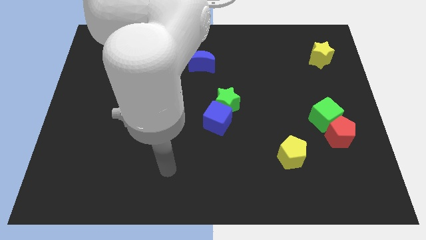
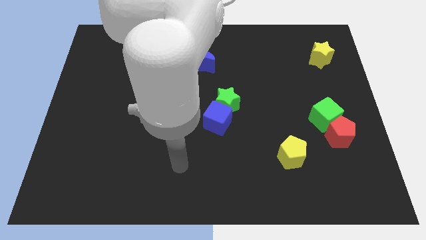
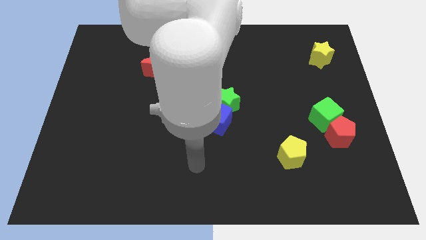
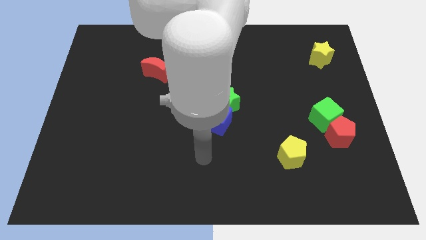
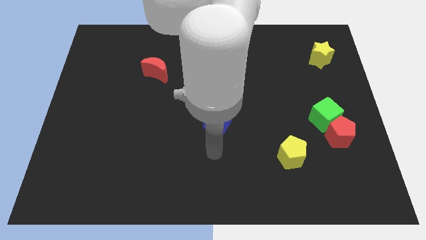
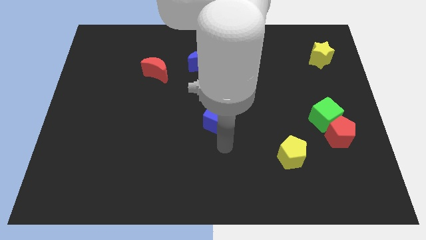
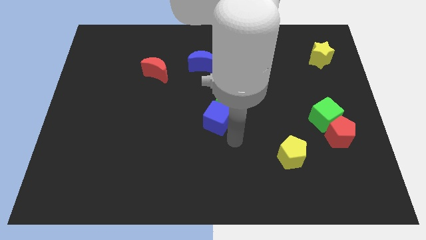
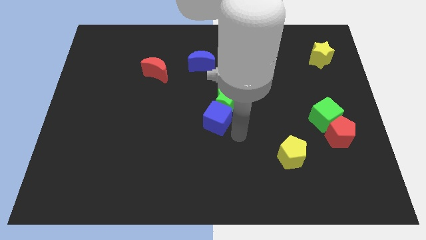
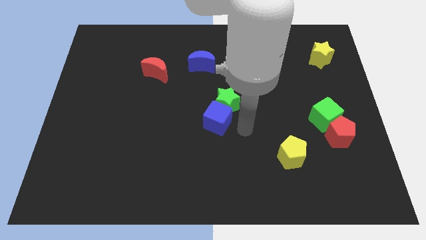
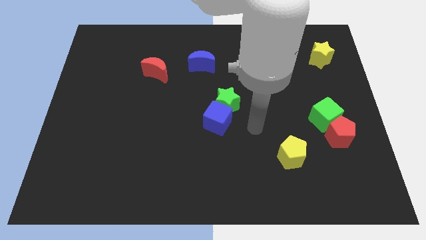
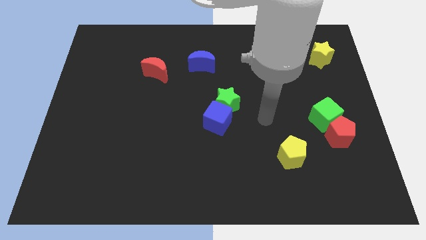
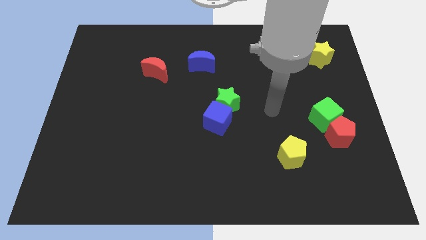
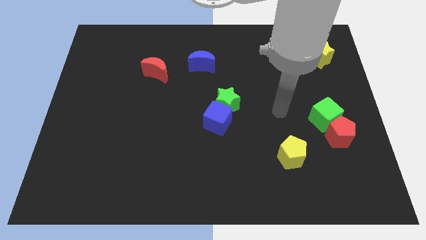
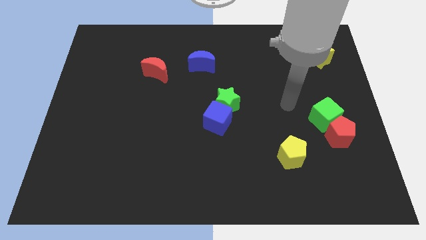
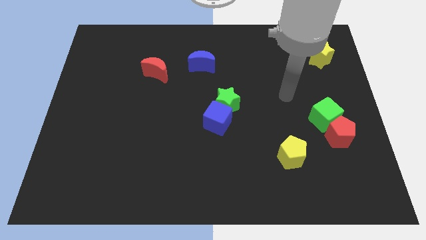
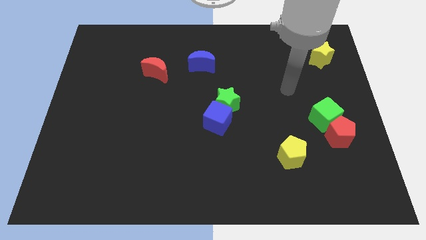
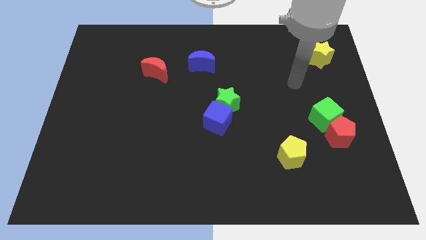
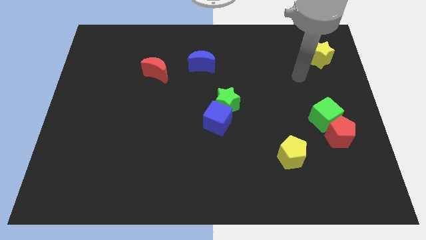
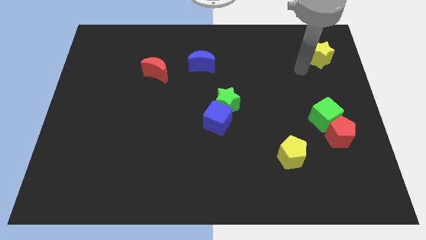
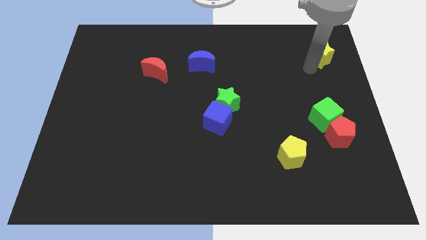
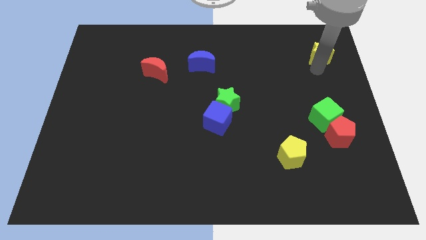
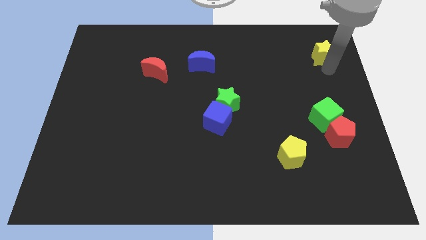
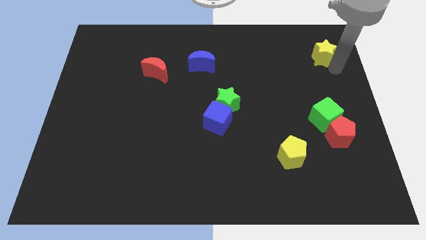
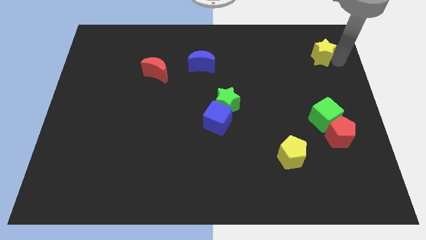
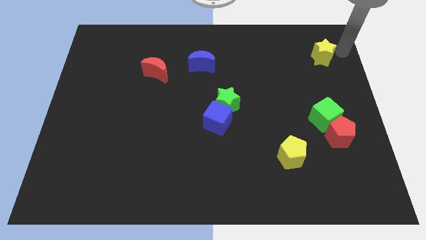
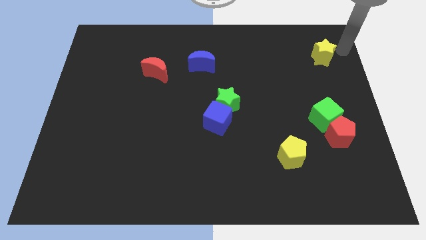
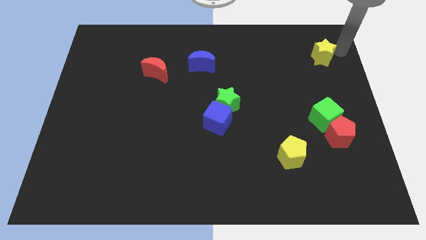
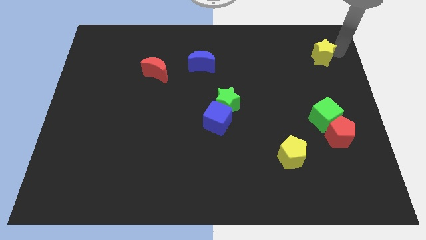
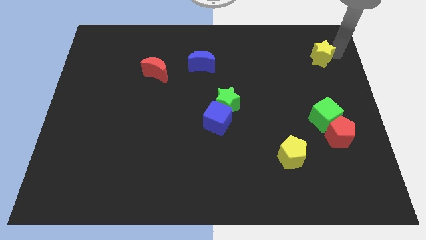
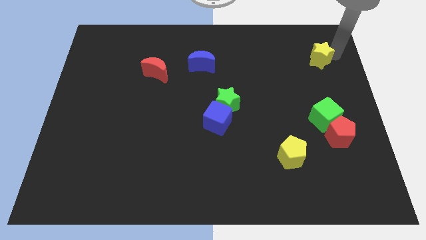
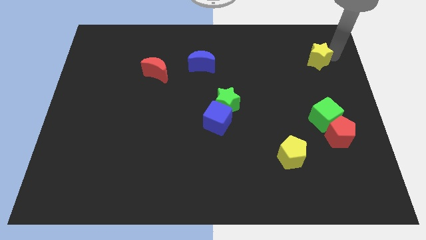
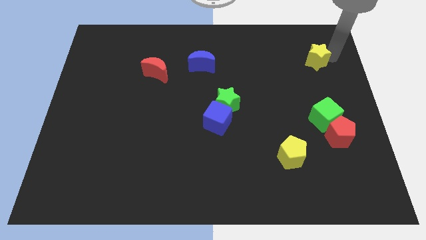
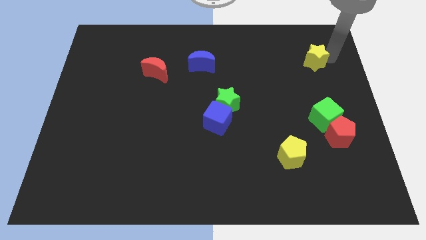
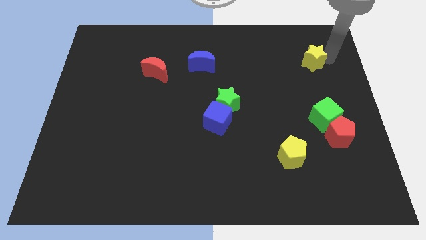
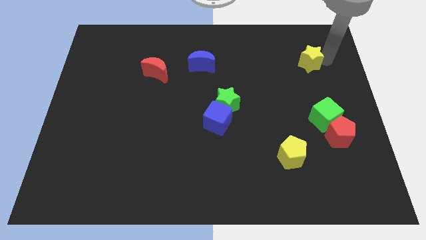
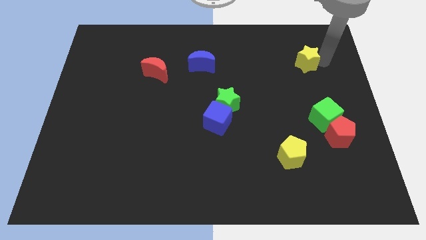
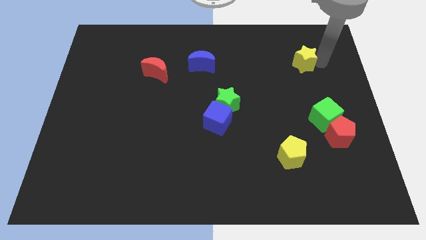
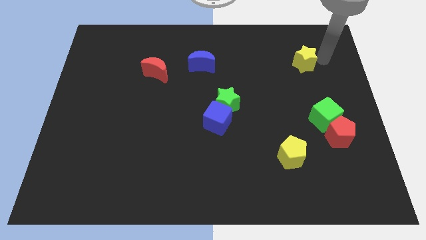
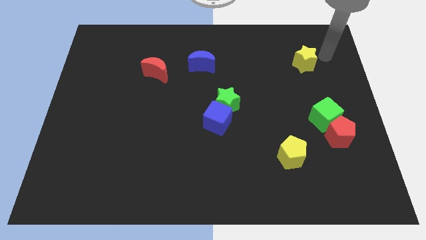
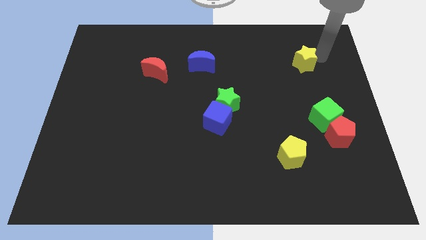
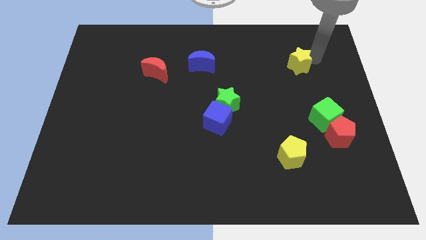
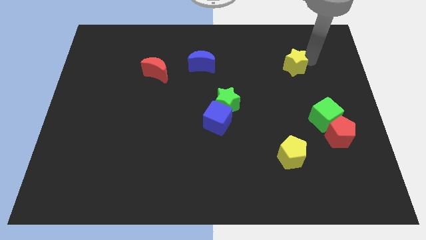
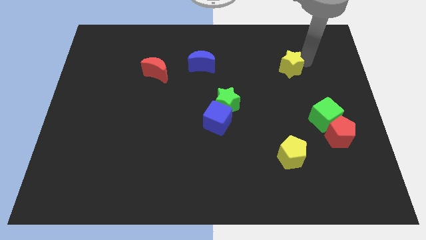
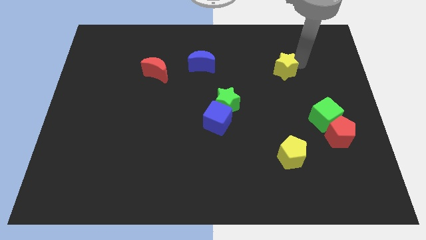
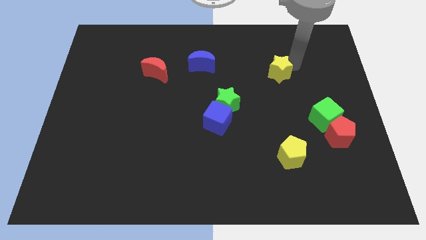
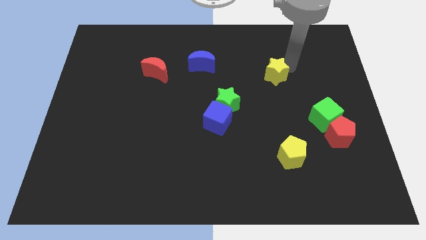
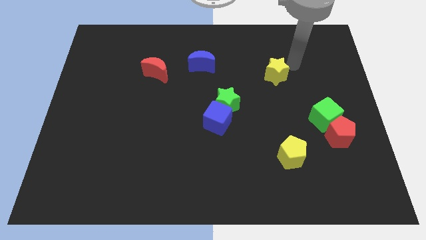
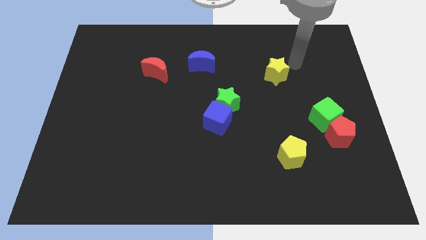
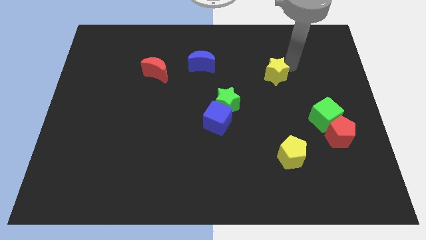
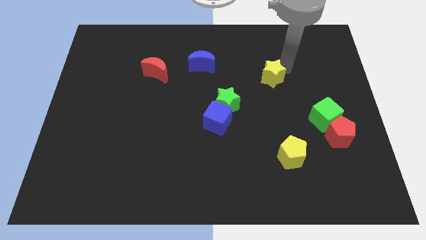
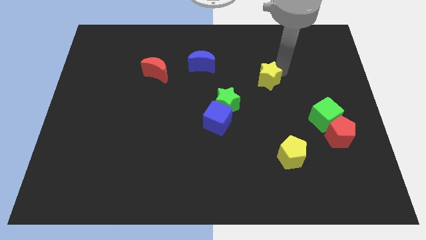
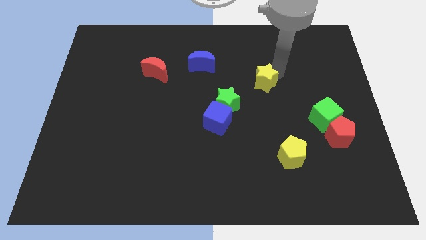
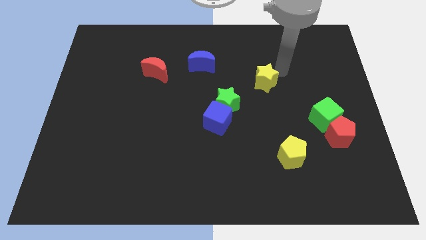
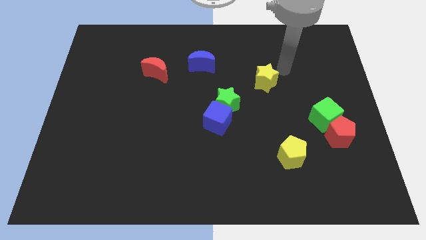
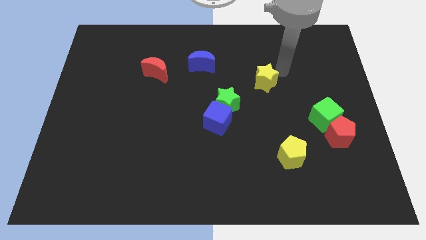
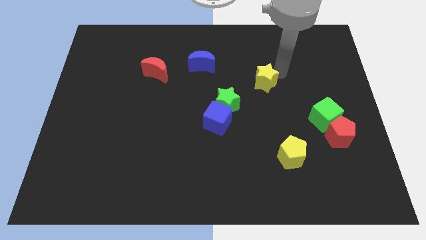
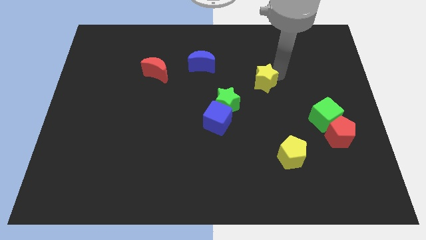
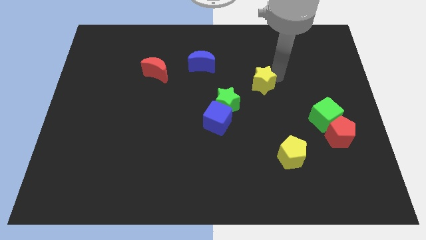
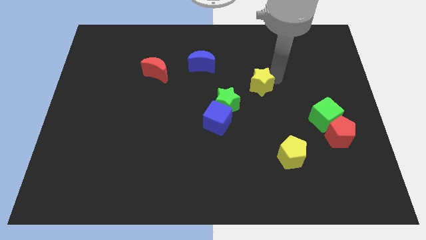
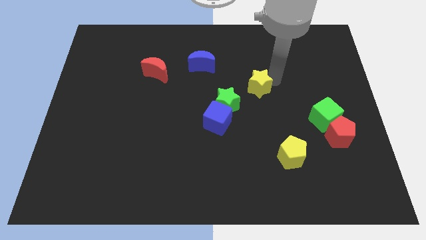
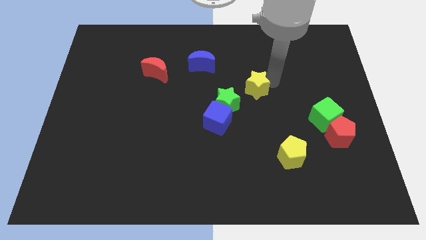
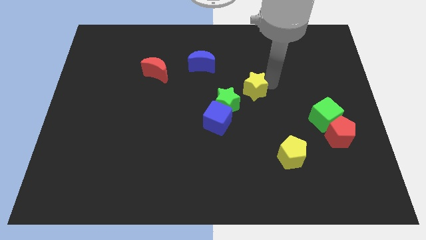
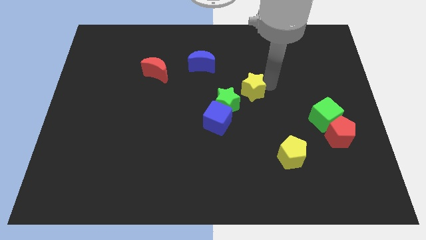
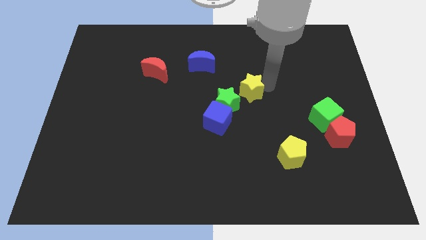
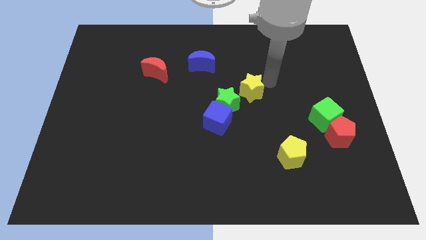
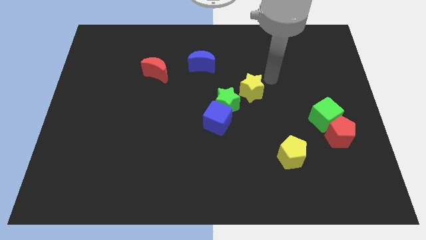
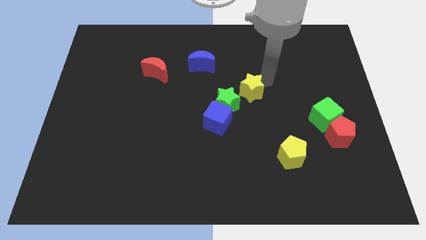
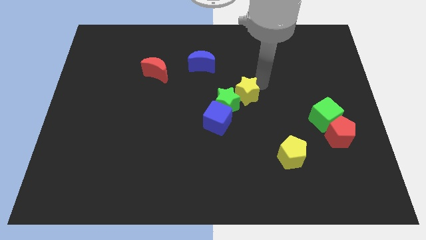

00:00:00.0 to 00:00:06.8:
slide the yellow star to the green star
